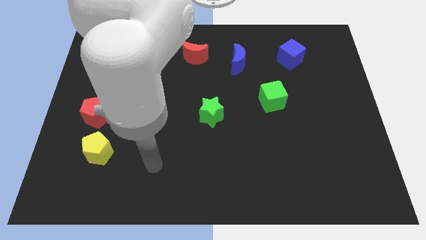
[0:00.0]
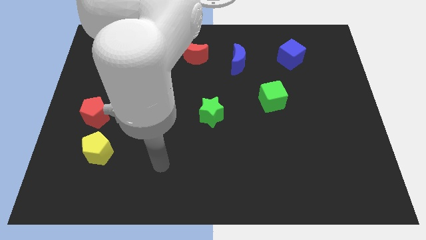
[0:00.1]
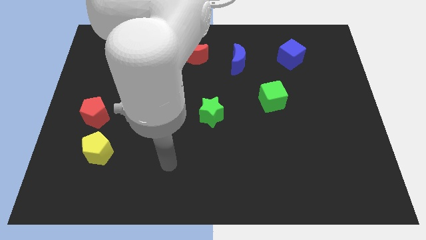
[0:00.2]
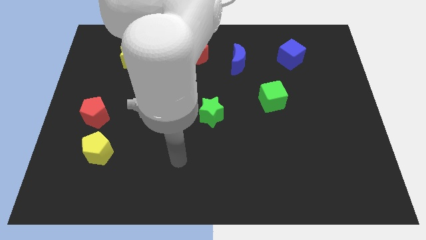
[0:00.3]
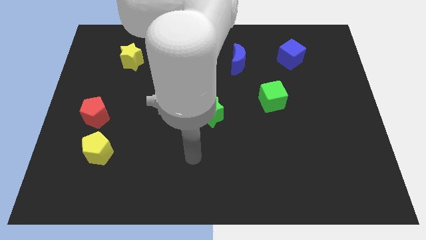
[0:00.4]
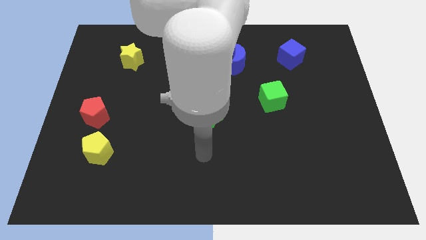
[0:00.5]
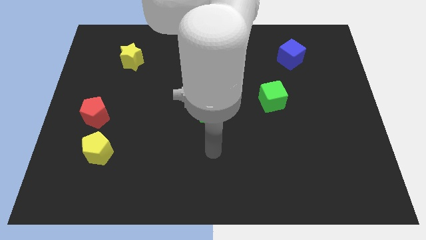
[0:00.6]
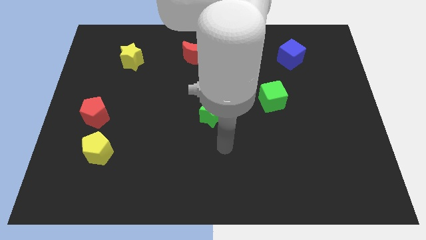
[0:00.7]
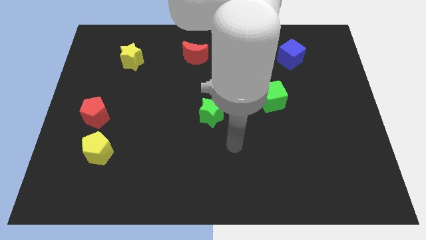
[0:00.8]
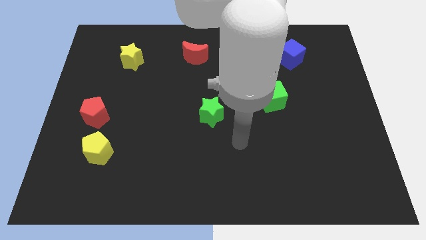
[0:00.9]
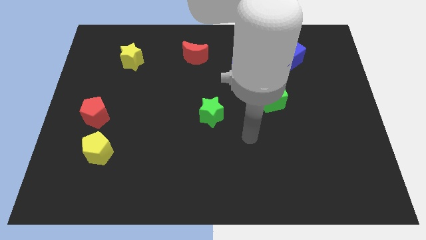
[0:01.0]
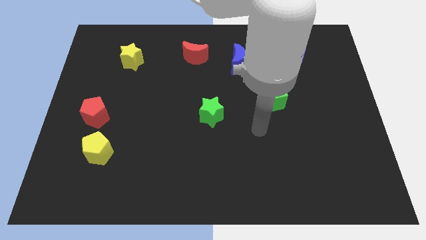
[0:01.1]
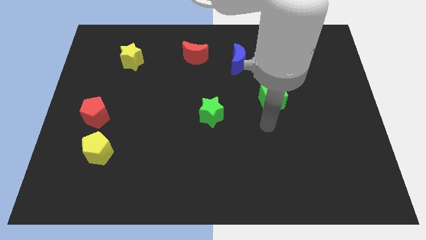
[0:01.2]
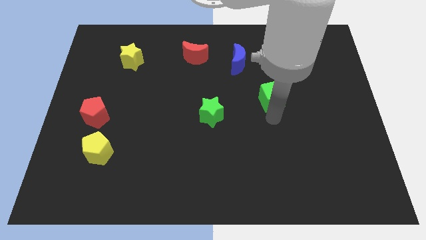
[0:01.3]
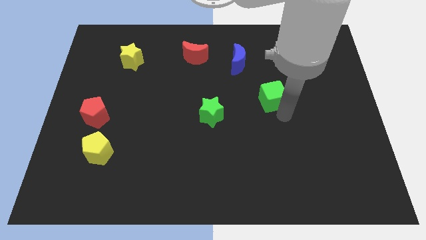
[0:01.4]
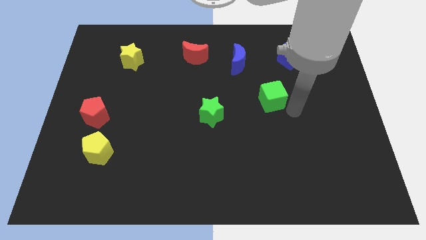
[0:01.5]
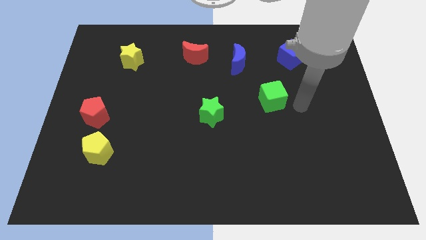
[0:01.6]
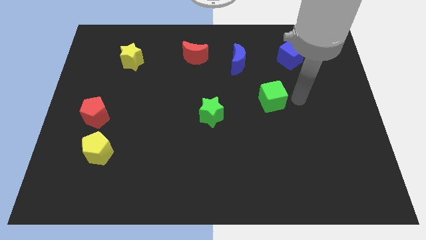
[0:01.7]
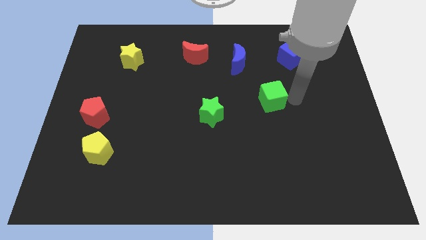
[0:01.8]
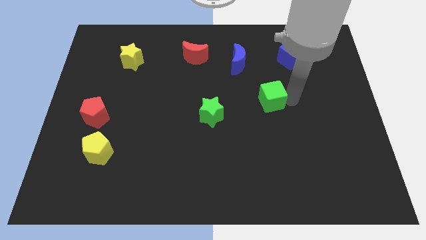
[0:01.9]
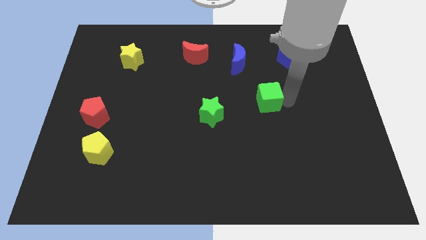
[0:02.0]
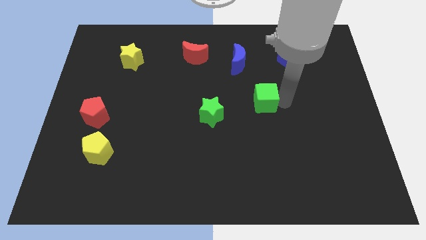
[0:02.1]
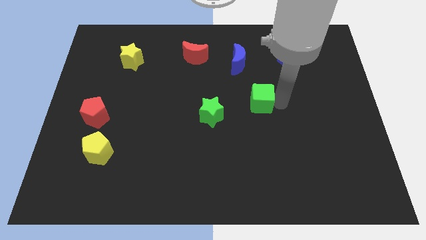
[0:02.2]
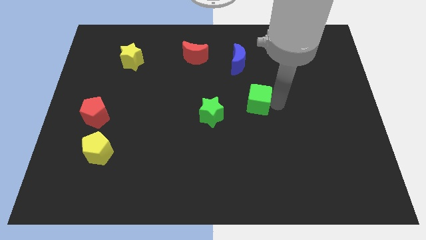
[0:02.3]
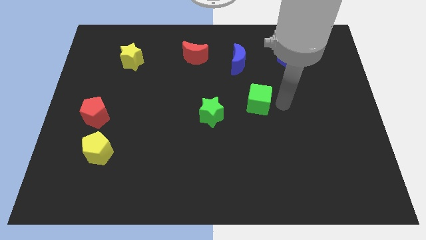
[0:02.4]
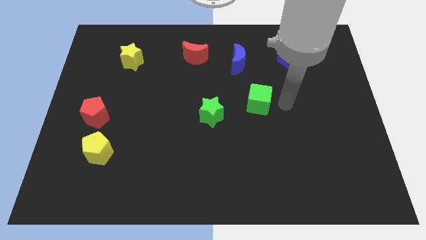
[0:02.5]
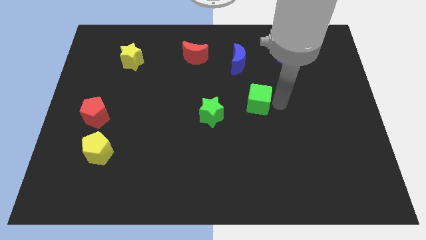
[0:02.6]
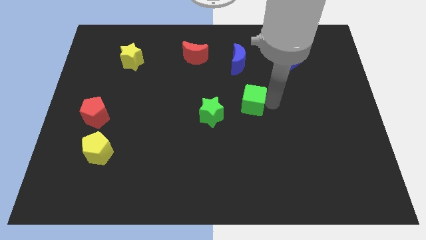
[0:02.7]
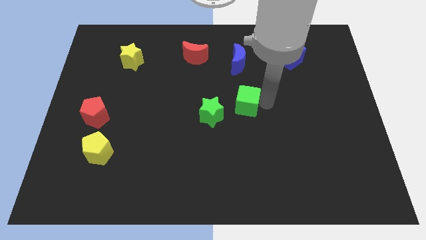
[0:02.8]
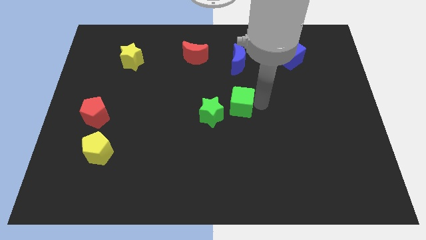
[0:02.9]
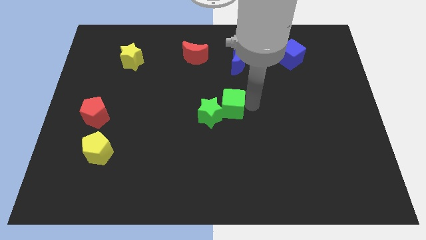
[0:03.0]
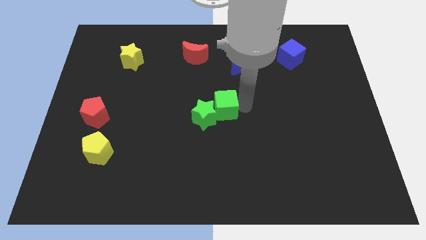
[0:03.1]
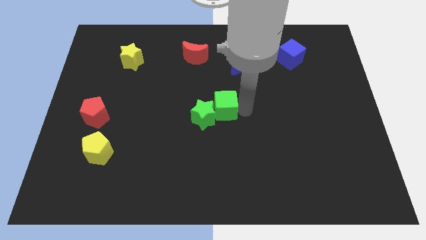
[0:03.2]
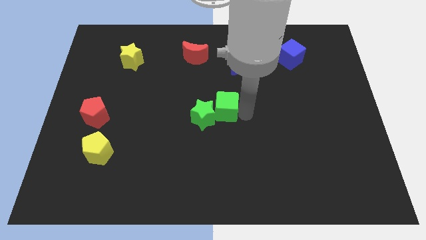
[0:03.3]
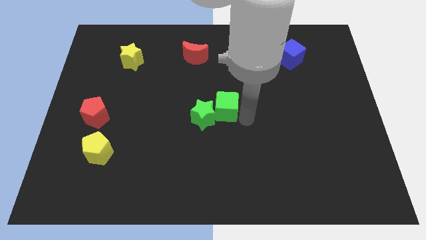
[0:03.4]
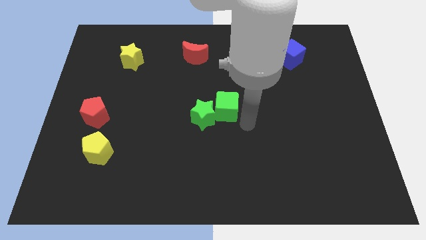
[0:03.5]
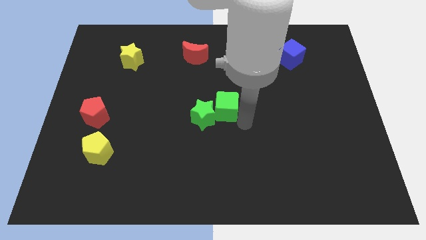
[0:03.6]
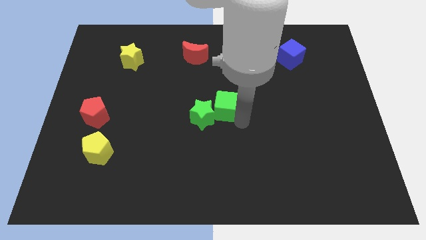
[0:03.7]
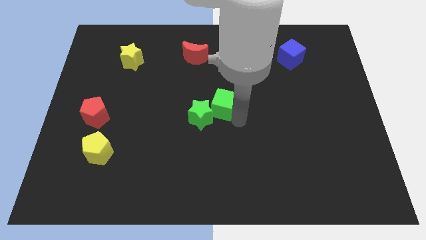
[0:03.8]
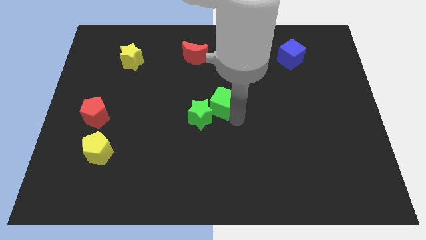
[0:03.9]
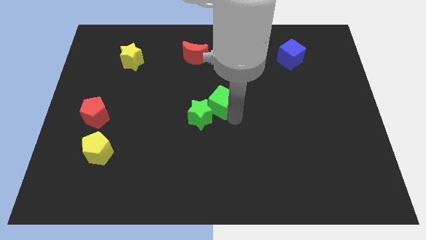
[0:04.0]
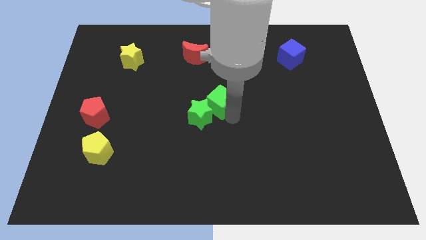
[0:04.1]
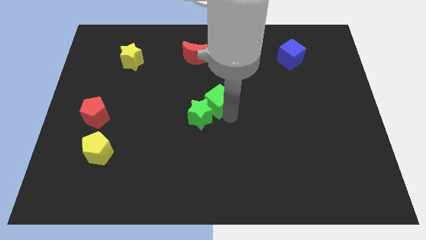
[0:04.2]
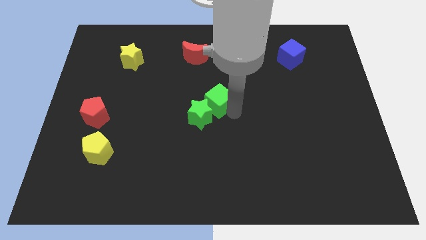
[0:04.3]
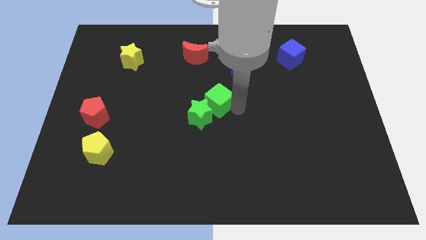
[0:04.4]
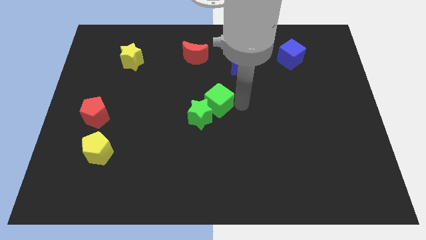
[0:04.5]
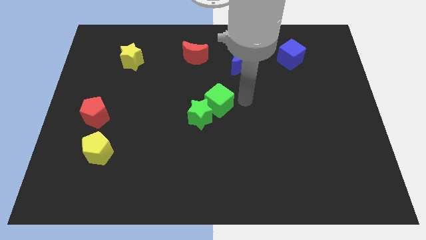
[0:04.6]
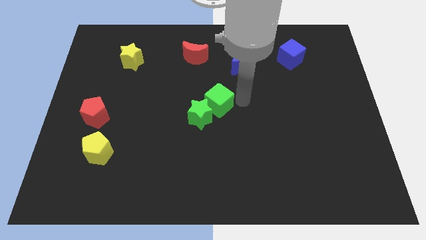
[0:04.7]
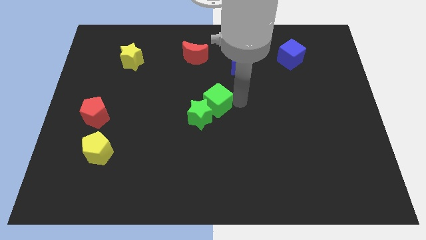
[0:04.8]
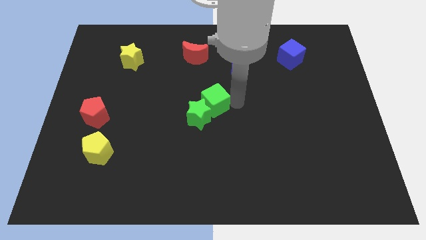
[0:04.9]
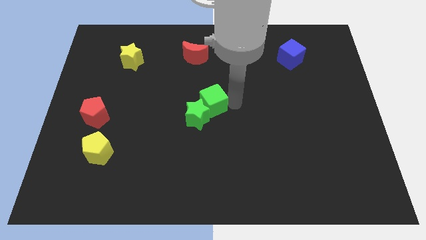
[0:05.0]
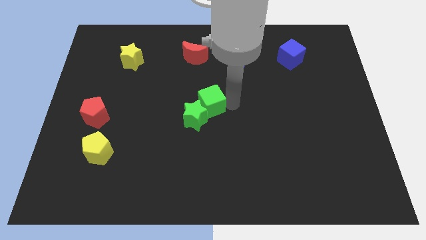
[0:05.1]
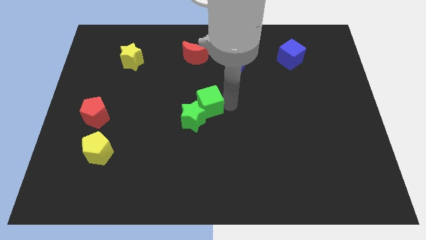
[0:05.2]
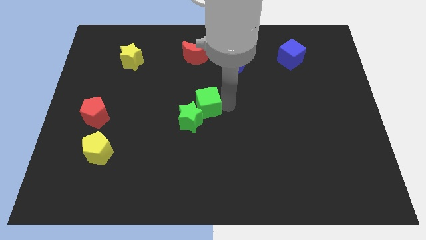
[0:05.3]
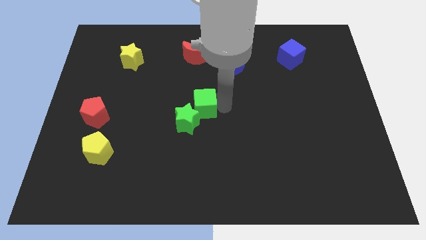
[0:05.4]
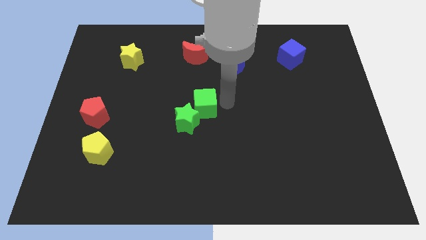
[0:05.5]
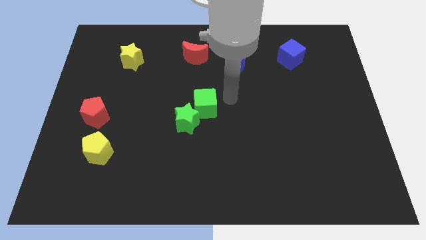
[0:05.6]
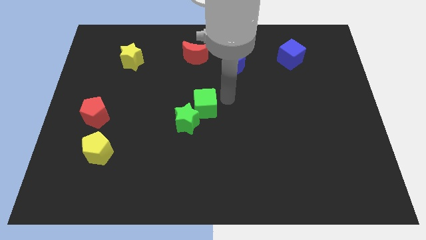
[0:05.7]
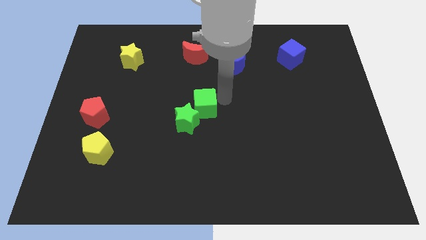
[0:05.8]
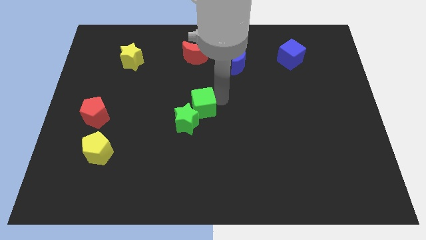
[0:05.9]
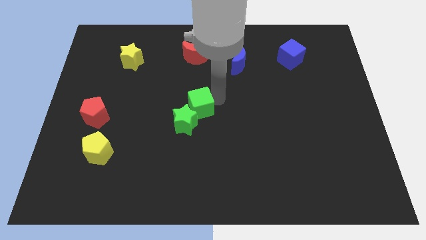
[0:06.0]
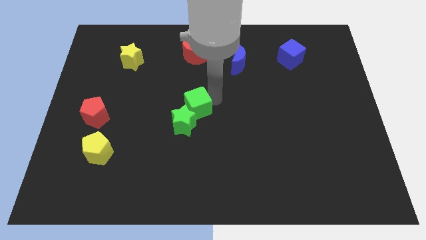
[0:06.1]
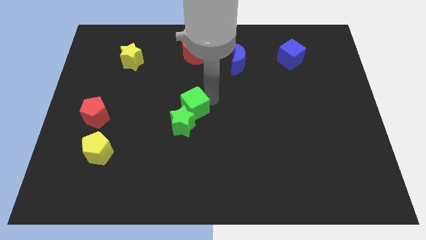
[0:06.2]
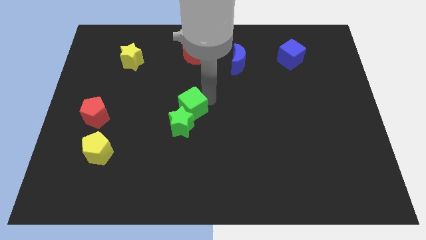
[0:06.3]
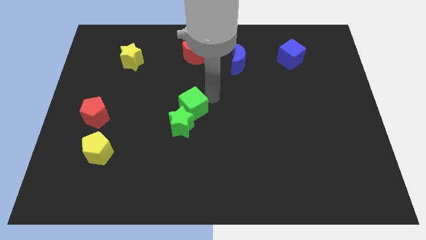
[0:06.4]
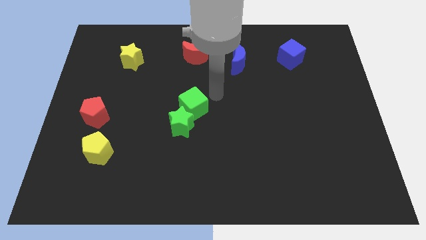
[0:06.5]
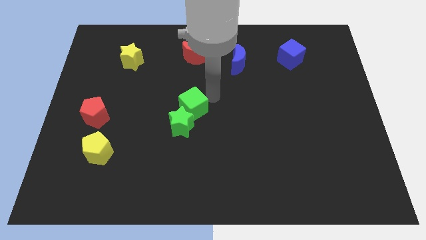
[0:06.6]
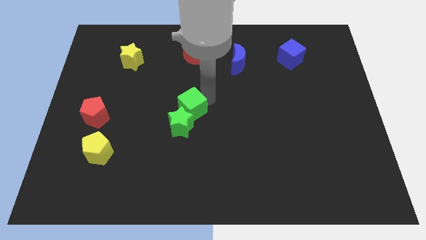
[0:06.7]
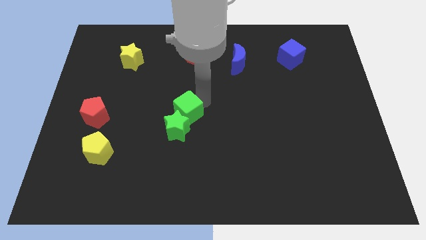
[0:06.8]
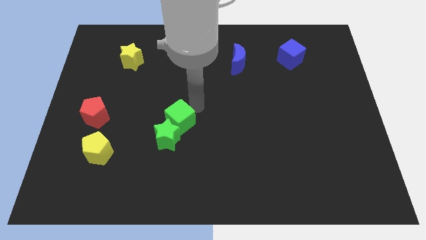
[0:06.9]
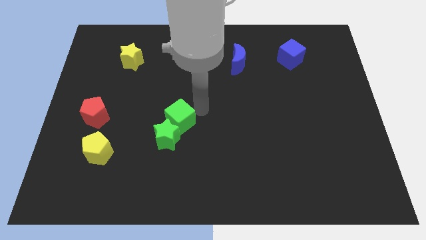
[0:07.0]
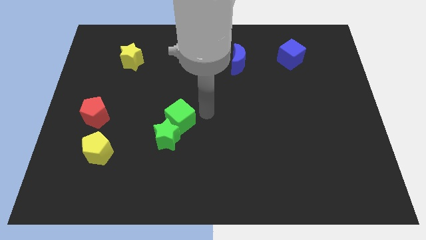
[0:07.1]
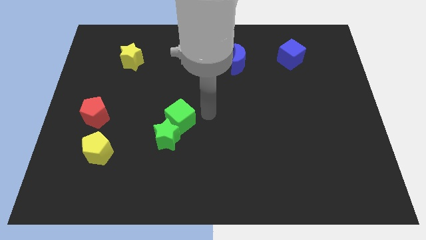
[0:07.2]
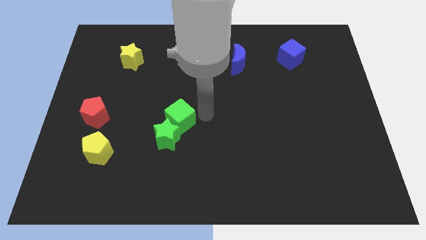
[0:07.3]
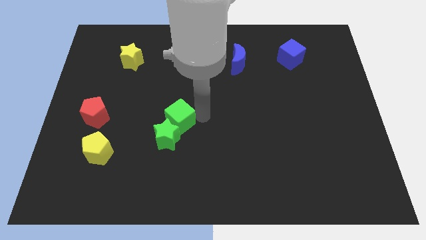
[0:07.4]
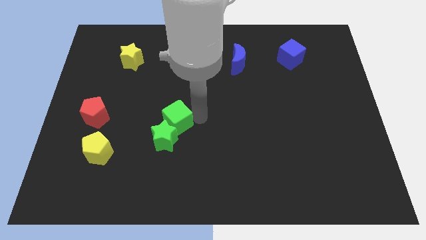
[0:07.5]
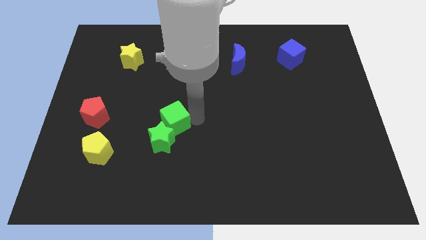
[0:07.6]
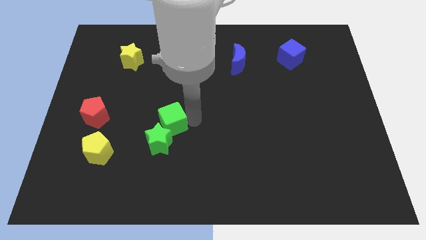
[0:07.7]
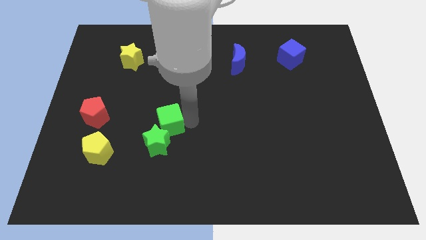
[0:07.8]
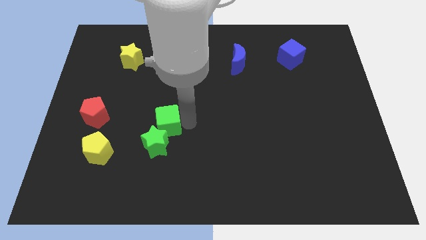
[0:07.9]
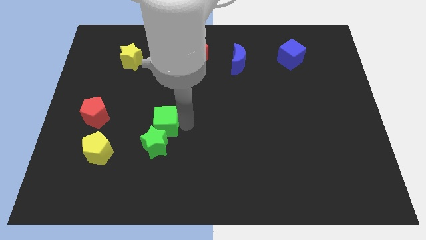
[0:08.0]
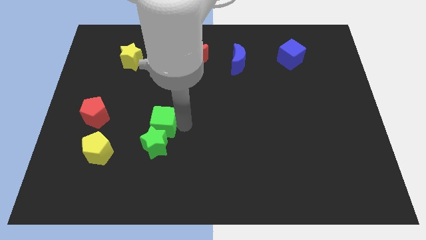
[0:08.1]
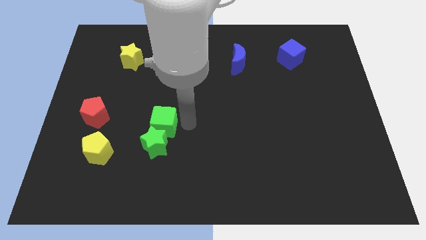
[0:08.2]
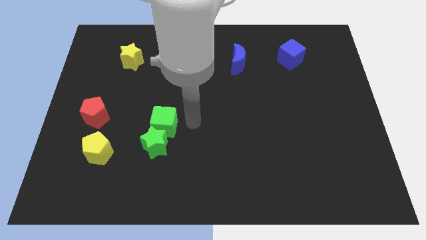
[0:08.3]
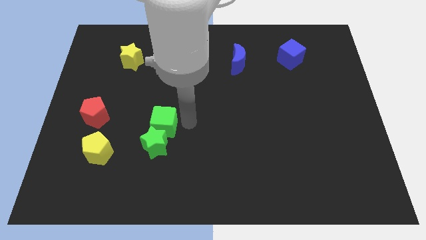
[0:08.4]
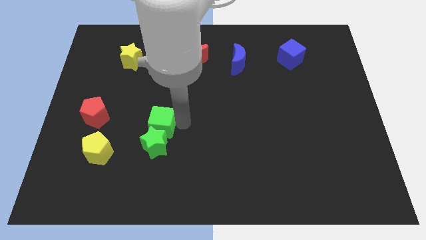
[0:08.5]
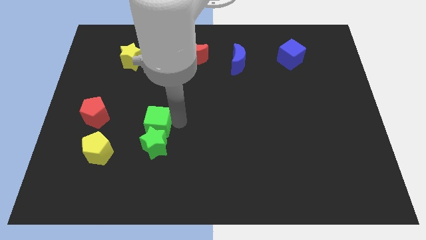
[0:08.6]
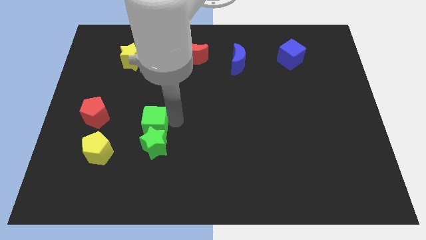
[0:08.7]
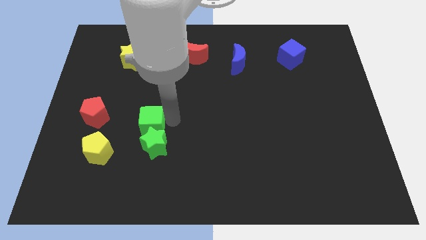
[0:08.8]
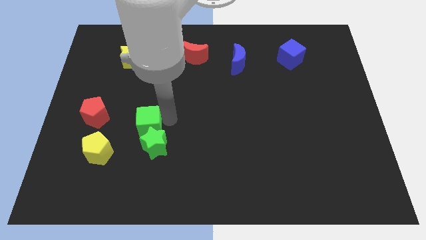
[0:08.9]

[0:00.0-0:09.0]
move the green cube to the top right of the yellow pentagon
